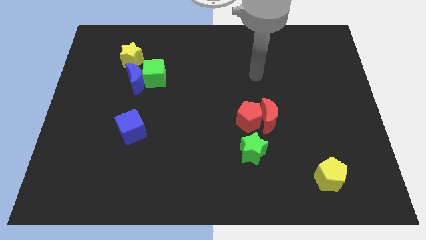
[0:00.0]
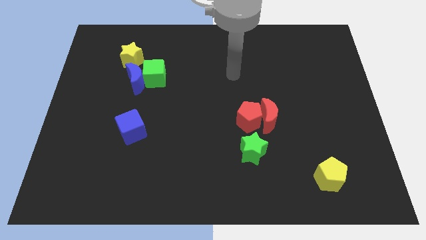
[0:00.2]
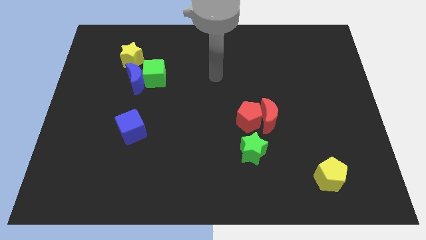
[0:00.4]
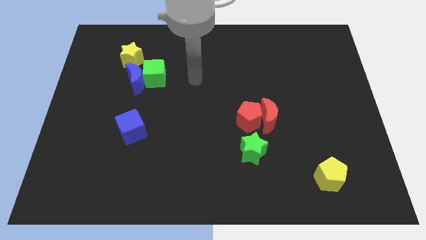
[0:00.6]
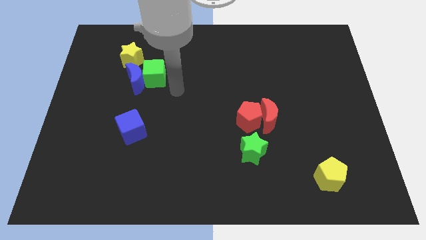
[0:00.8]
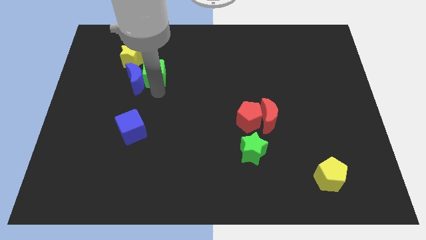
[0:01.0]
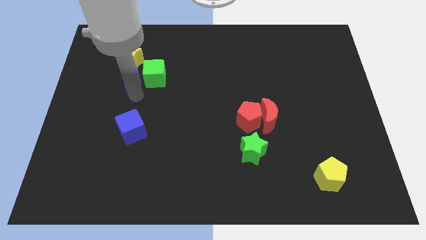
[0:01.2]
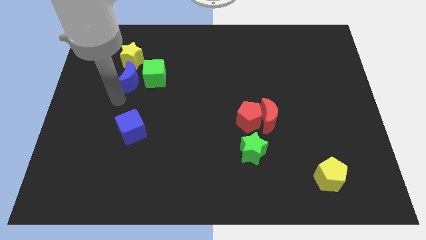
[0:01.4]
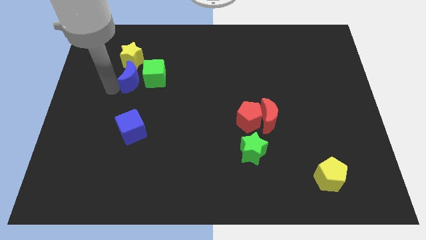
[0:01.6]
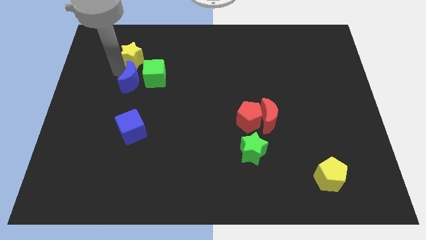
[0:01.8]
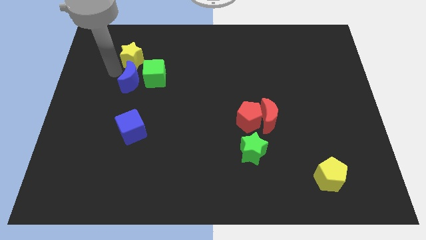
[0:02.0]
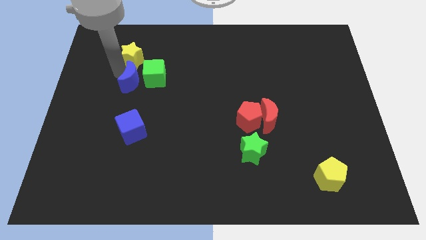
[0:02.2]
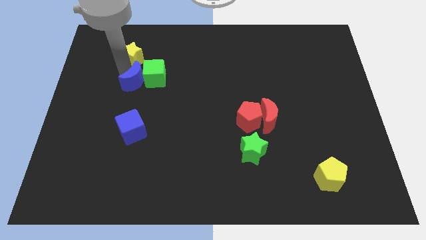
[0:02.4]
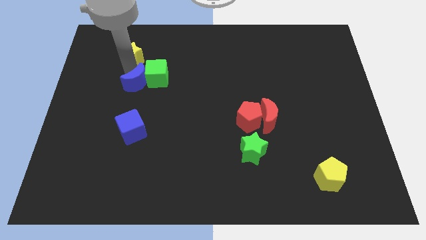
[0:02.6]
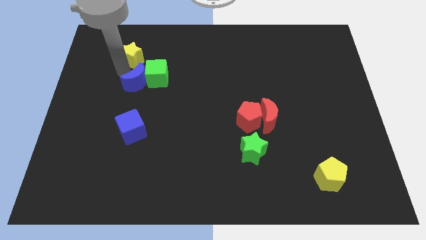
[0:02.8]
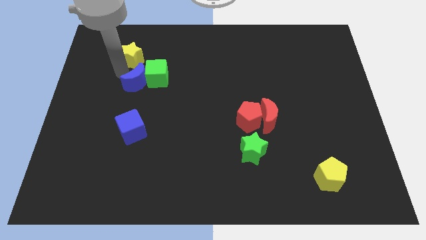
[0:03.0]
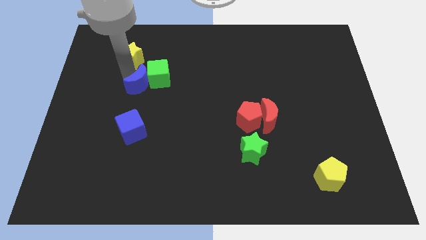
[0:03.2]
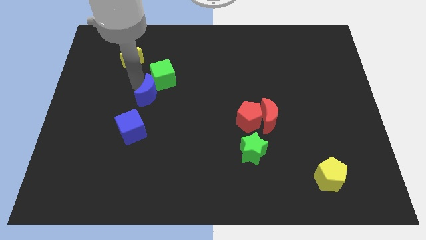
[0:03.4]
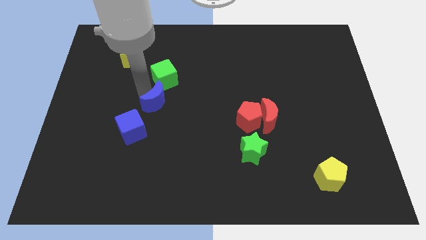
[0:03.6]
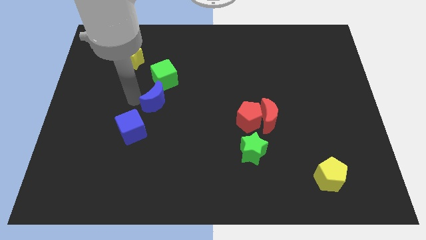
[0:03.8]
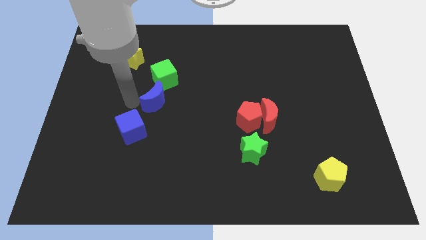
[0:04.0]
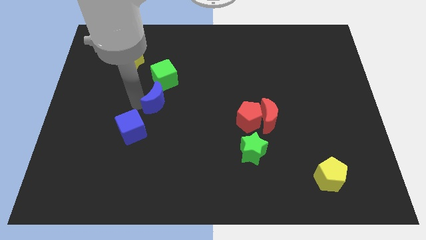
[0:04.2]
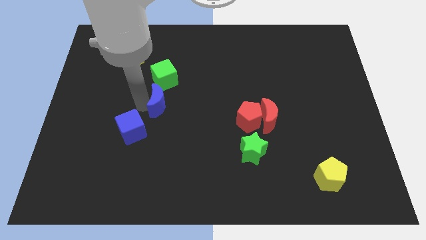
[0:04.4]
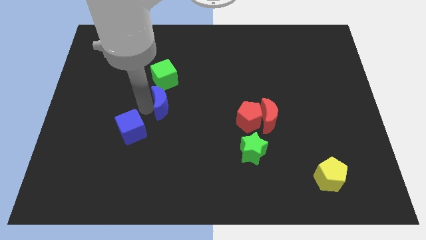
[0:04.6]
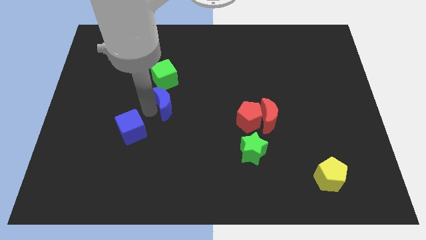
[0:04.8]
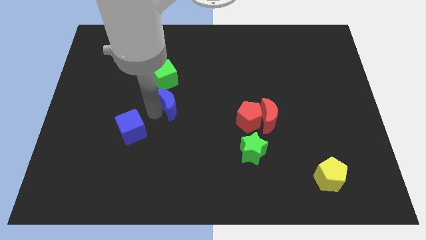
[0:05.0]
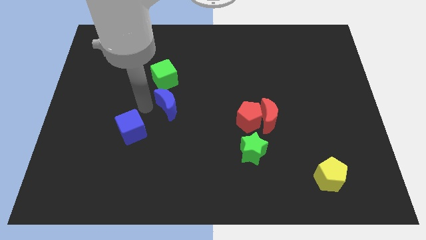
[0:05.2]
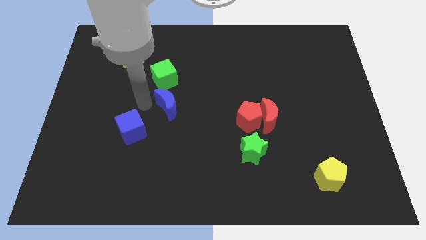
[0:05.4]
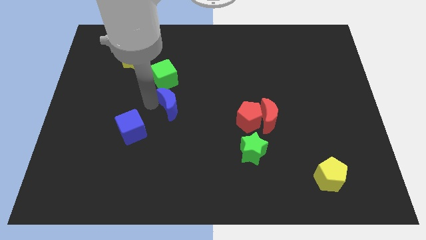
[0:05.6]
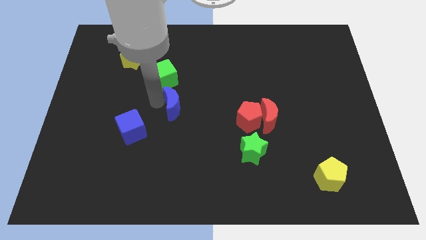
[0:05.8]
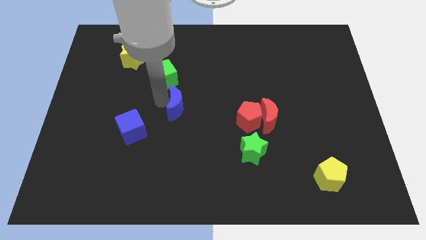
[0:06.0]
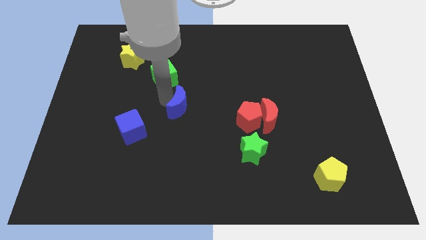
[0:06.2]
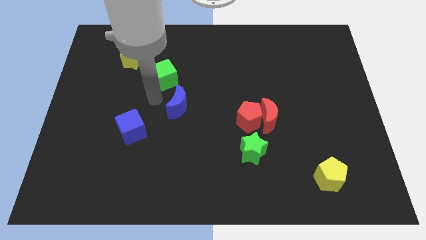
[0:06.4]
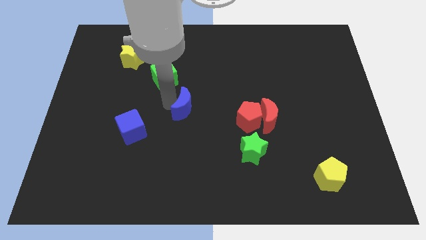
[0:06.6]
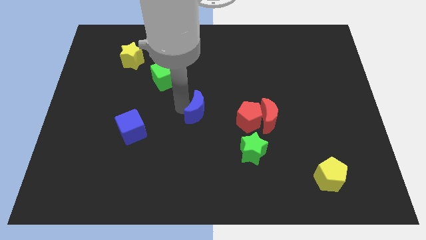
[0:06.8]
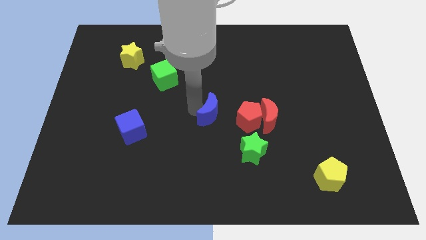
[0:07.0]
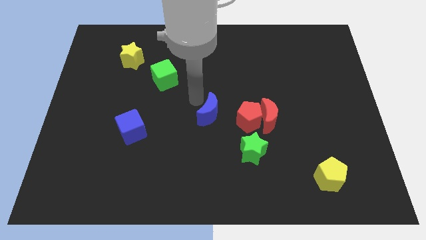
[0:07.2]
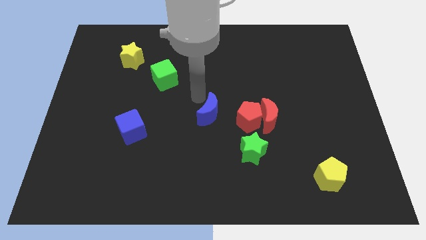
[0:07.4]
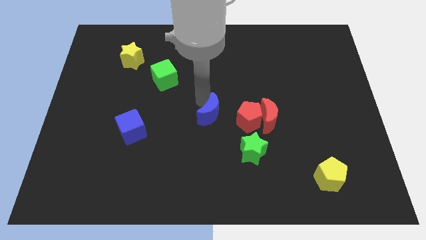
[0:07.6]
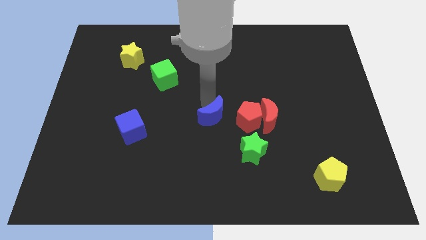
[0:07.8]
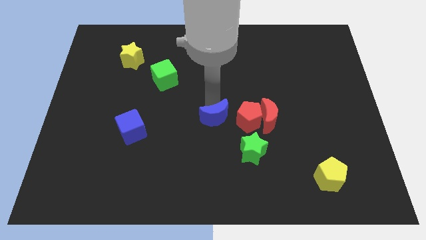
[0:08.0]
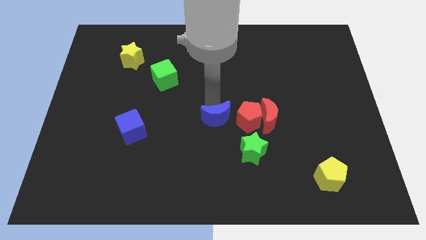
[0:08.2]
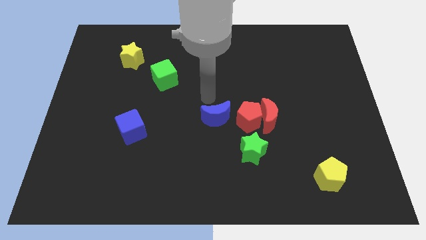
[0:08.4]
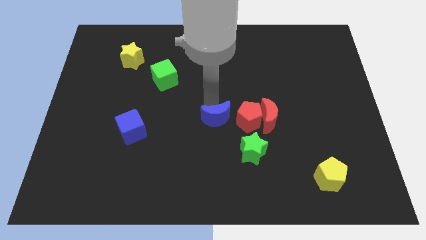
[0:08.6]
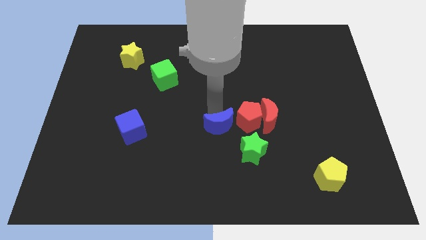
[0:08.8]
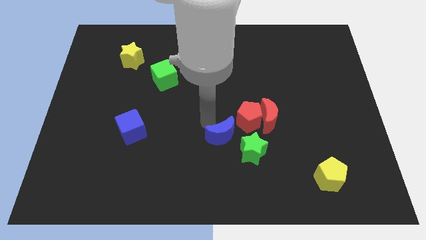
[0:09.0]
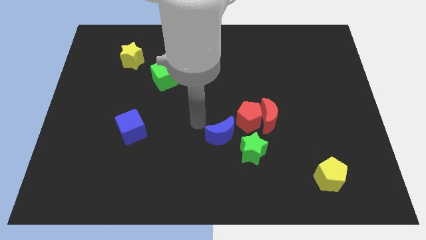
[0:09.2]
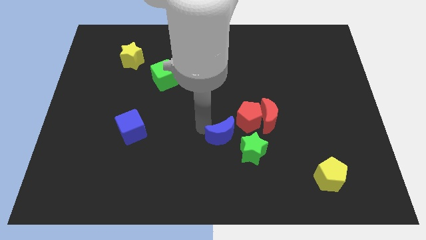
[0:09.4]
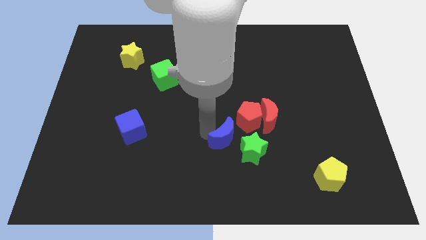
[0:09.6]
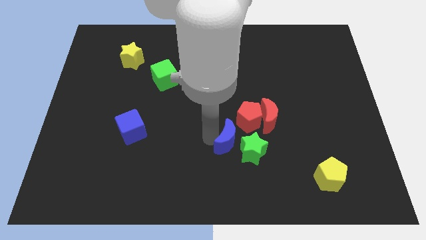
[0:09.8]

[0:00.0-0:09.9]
move the blue moon towards the green star

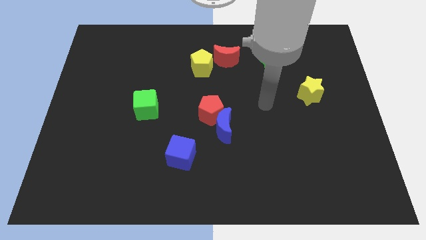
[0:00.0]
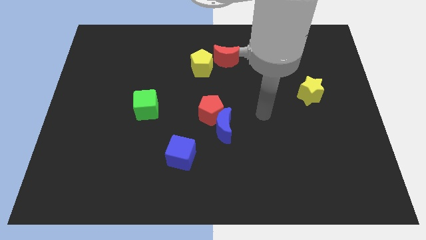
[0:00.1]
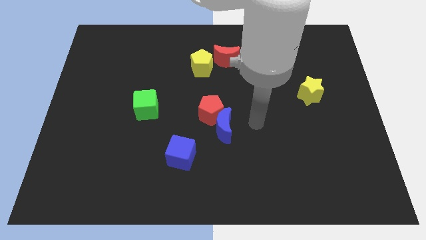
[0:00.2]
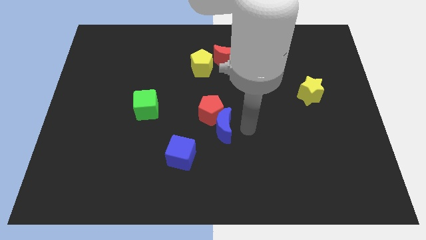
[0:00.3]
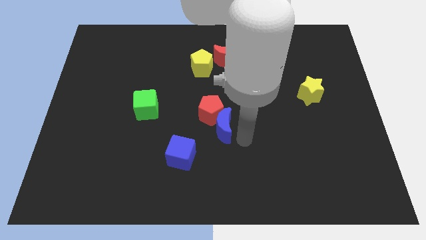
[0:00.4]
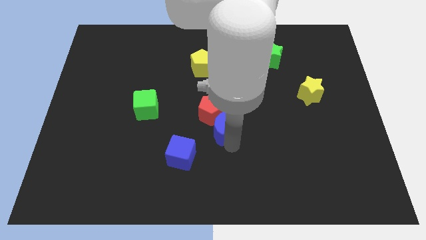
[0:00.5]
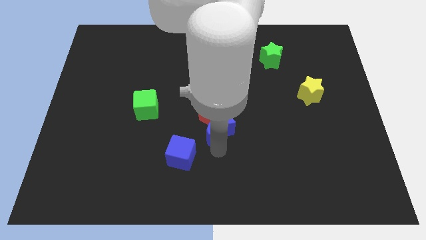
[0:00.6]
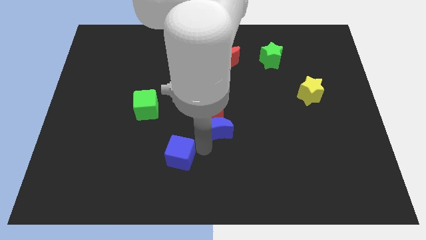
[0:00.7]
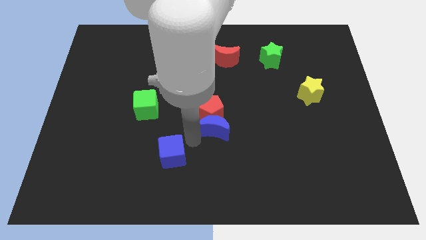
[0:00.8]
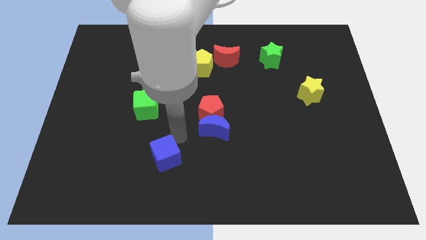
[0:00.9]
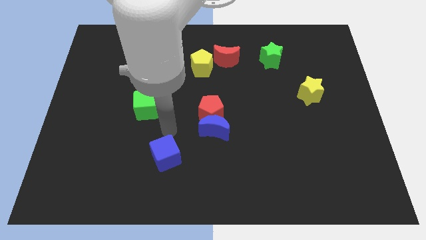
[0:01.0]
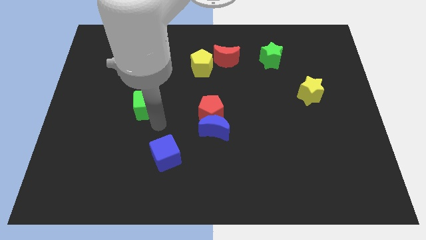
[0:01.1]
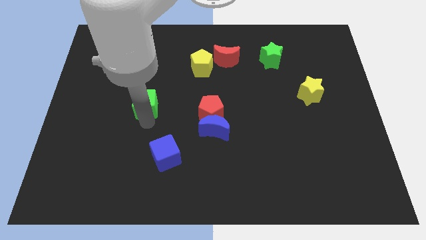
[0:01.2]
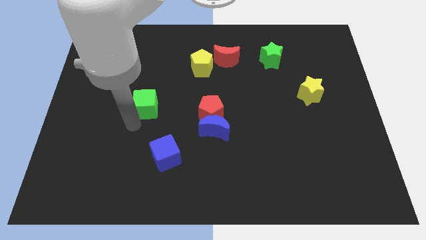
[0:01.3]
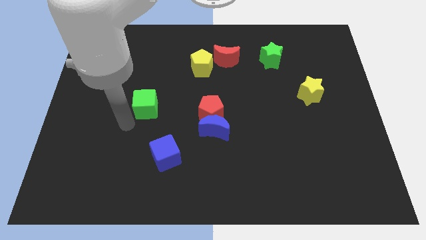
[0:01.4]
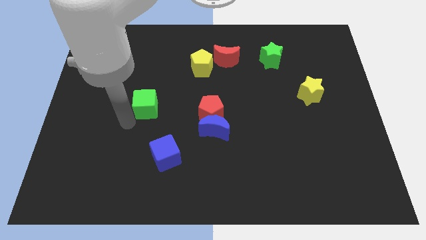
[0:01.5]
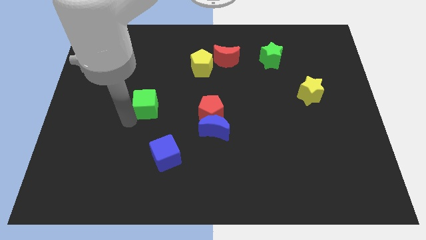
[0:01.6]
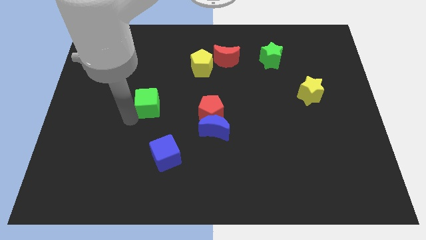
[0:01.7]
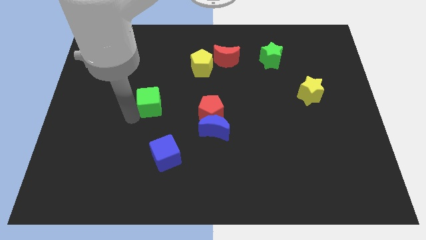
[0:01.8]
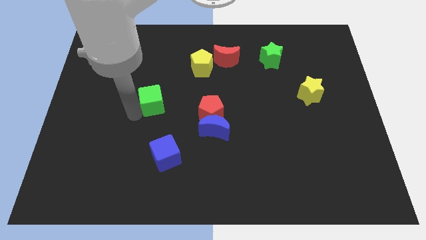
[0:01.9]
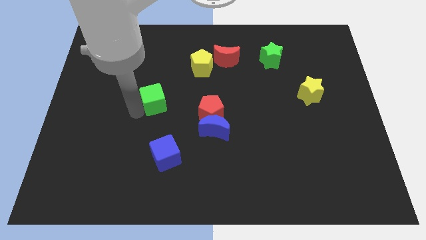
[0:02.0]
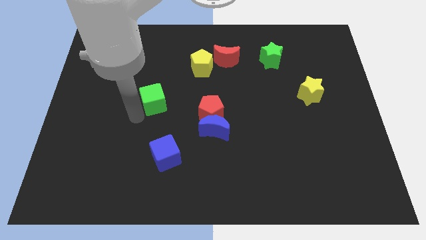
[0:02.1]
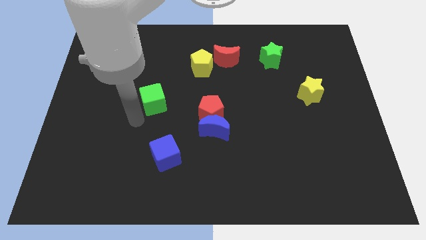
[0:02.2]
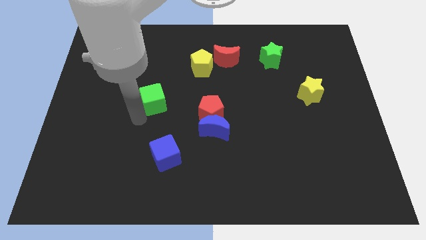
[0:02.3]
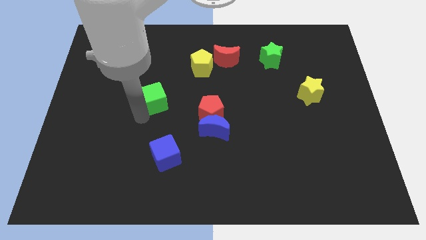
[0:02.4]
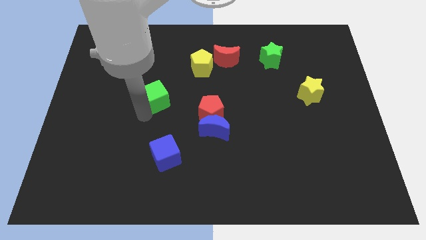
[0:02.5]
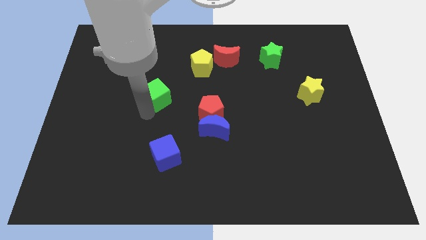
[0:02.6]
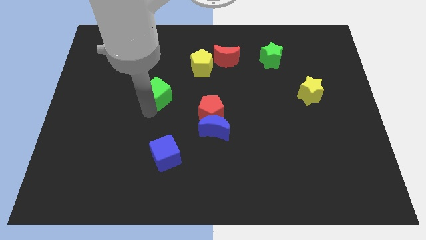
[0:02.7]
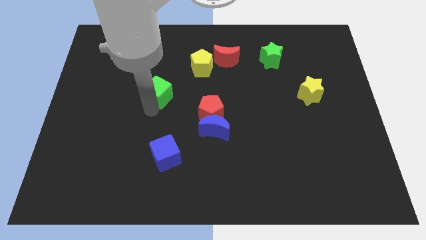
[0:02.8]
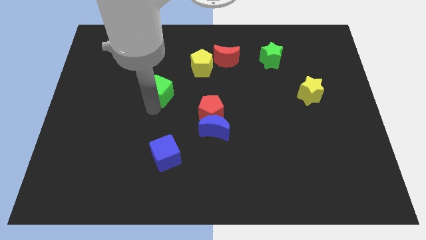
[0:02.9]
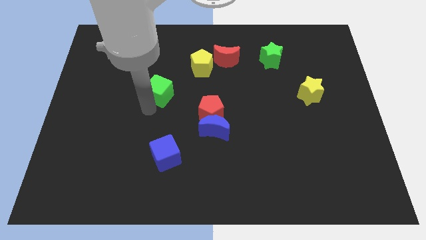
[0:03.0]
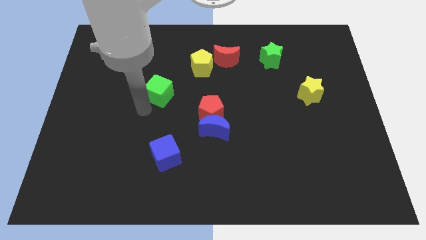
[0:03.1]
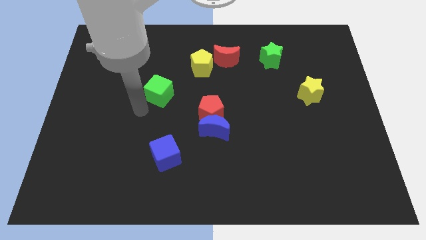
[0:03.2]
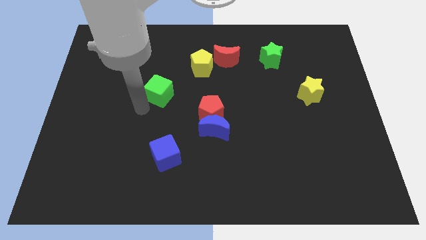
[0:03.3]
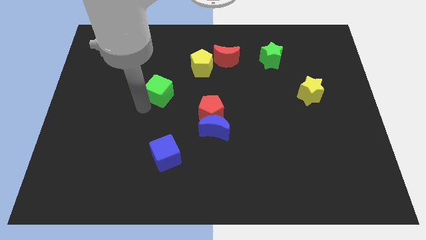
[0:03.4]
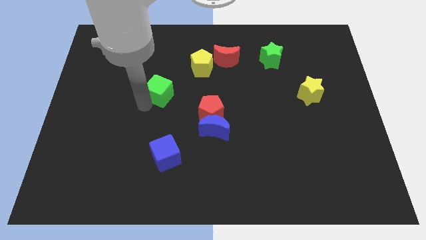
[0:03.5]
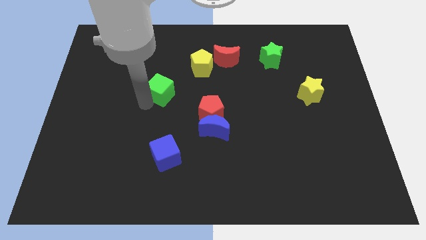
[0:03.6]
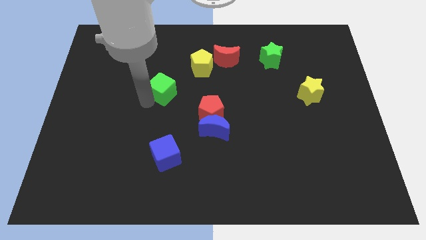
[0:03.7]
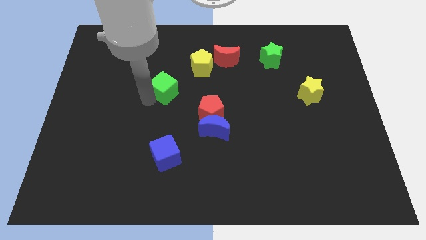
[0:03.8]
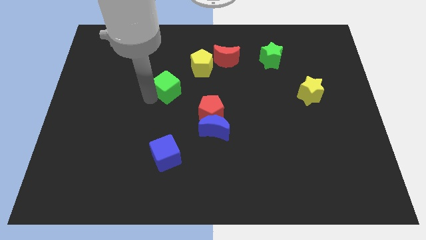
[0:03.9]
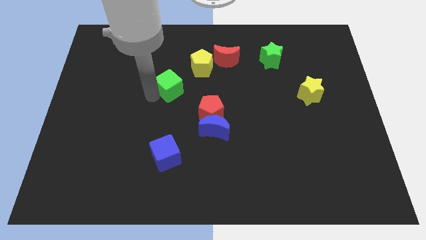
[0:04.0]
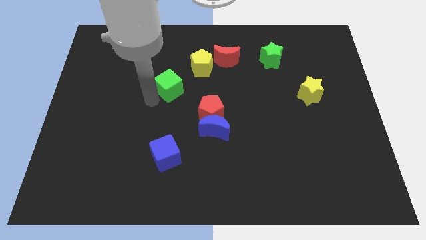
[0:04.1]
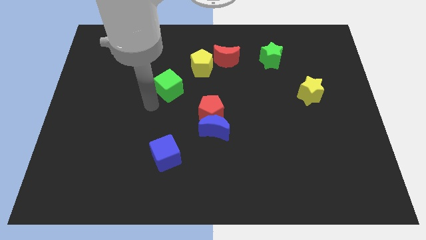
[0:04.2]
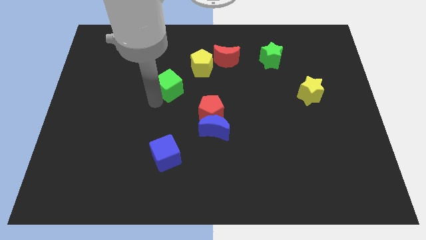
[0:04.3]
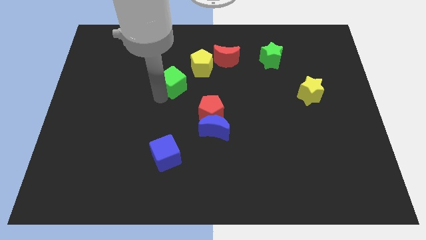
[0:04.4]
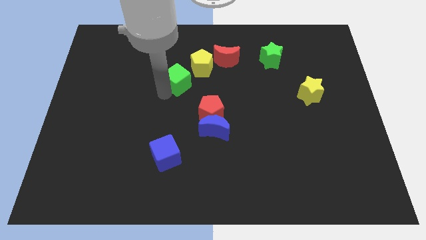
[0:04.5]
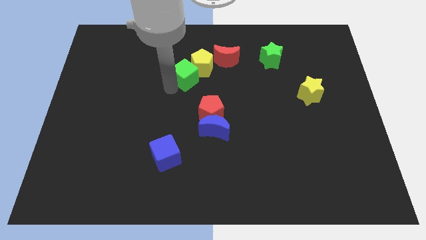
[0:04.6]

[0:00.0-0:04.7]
move the green cube next to the yellow pentagon
